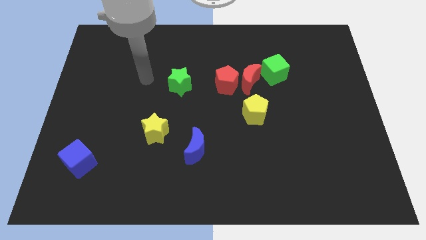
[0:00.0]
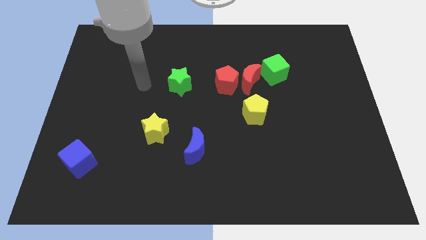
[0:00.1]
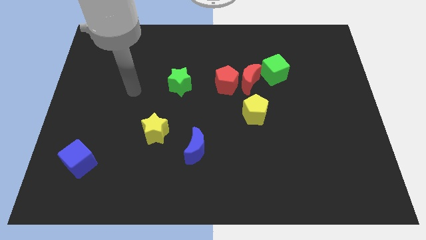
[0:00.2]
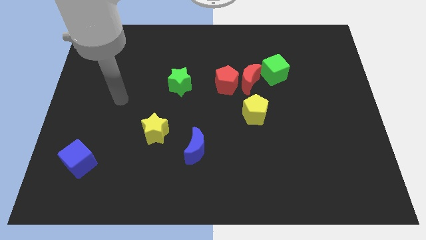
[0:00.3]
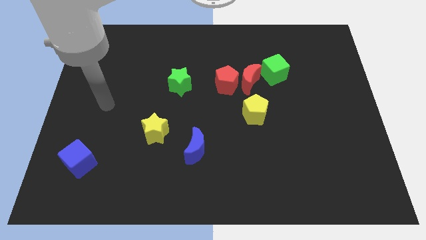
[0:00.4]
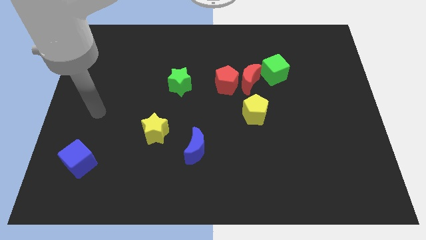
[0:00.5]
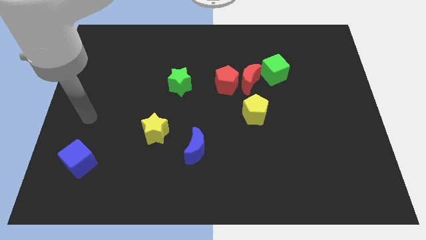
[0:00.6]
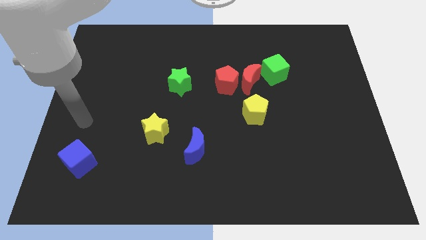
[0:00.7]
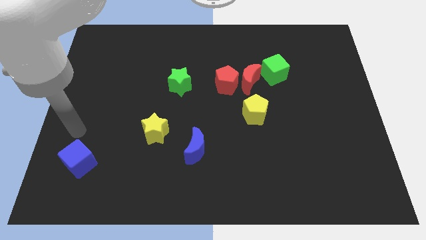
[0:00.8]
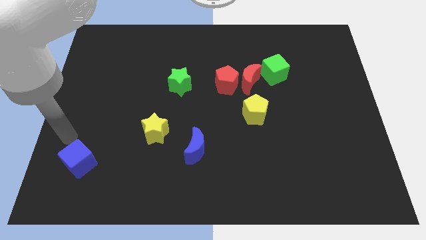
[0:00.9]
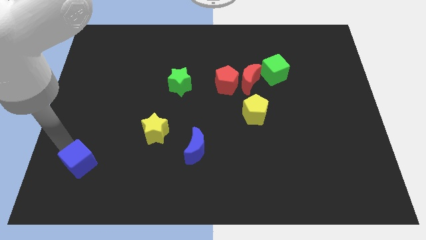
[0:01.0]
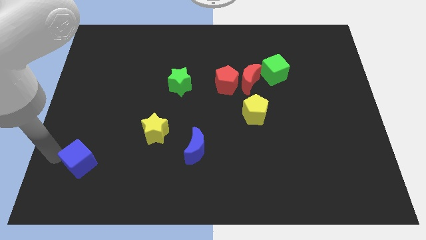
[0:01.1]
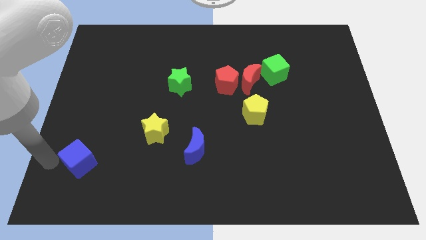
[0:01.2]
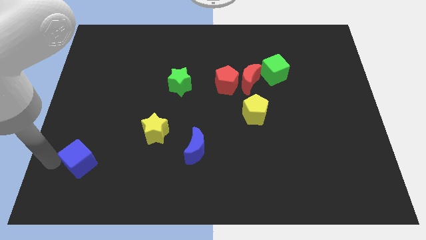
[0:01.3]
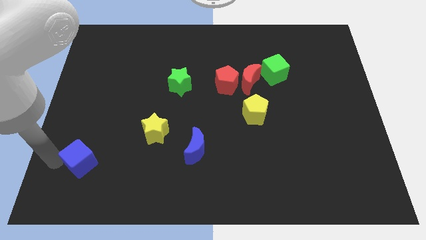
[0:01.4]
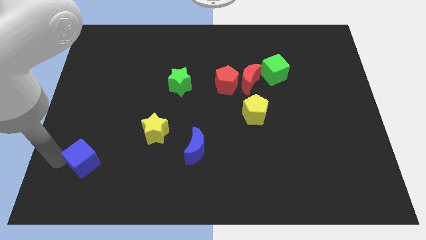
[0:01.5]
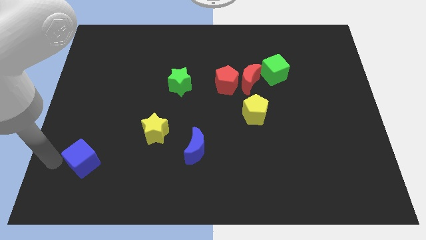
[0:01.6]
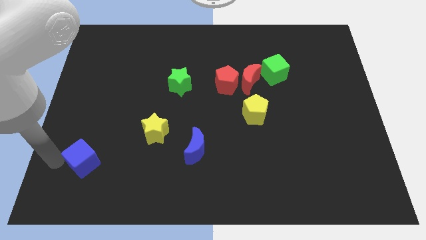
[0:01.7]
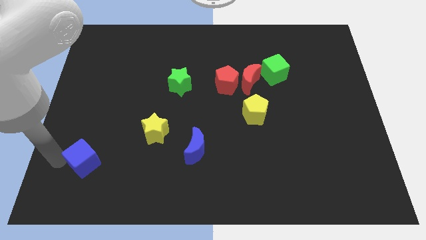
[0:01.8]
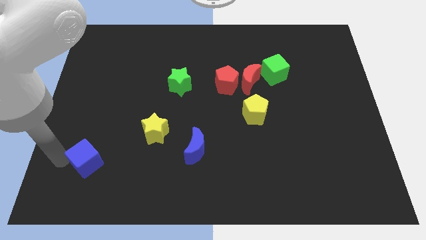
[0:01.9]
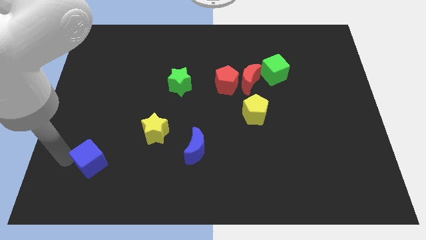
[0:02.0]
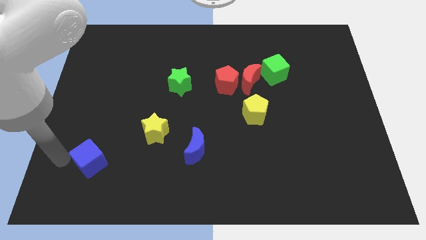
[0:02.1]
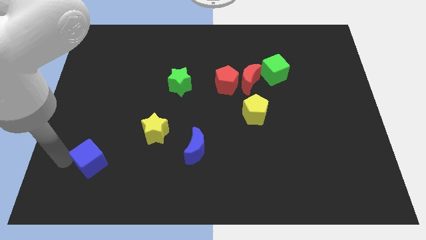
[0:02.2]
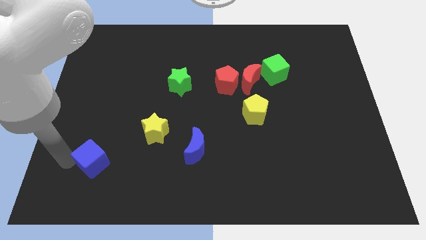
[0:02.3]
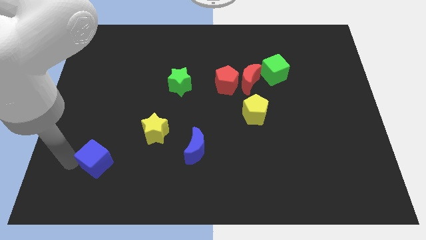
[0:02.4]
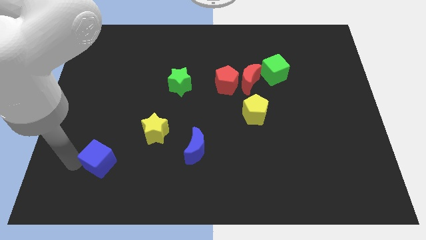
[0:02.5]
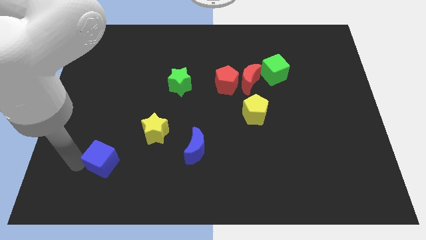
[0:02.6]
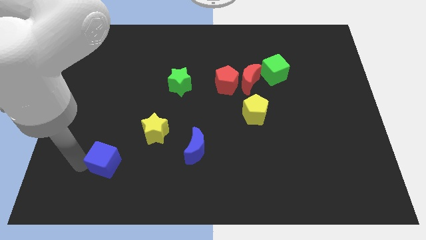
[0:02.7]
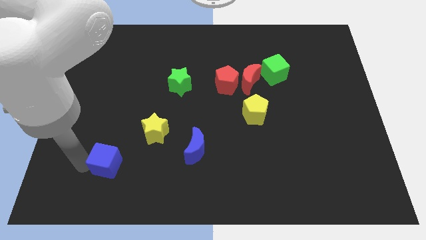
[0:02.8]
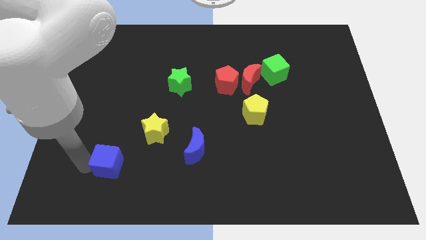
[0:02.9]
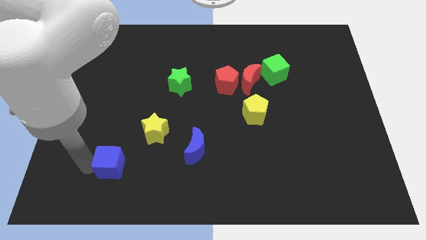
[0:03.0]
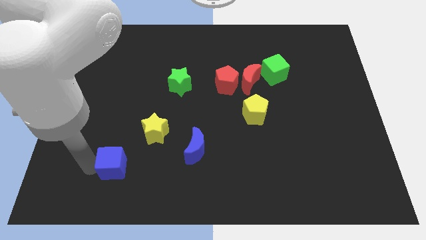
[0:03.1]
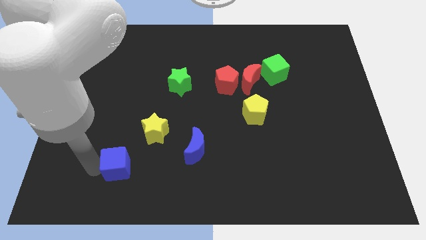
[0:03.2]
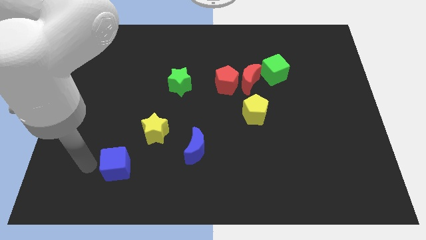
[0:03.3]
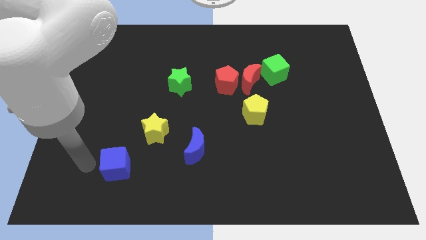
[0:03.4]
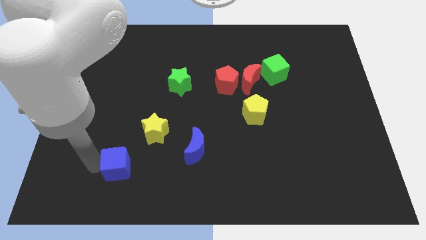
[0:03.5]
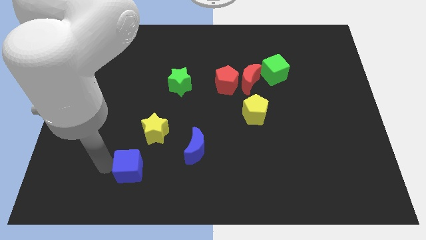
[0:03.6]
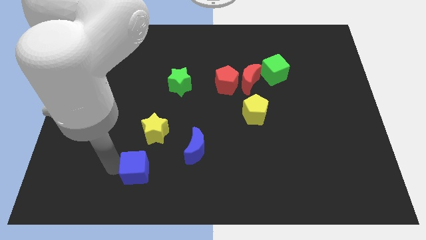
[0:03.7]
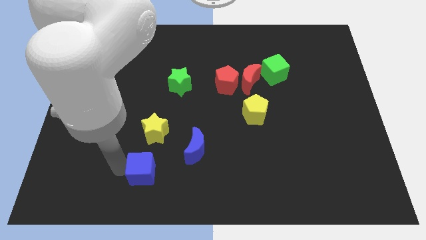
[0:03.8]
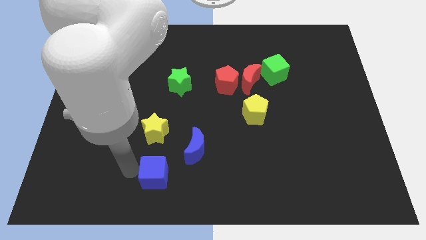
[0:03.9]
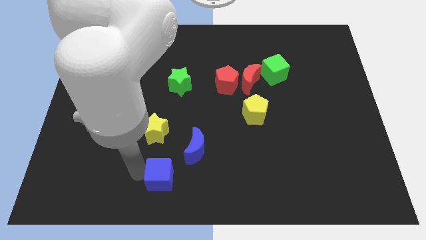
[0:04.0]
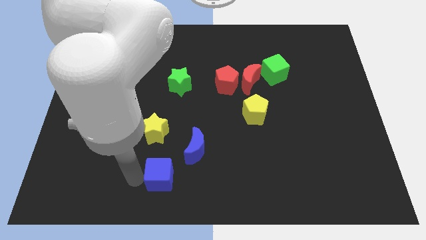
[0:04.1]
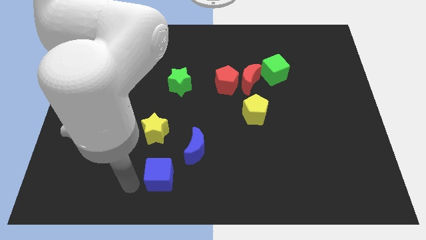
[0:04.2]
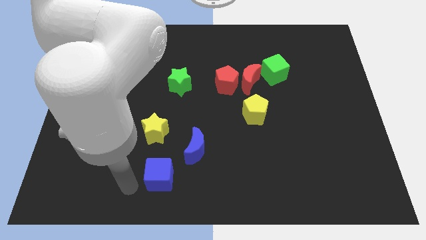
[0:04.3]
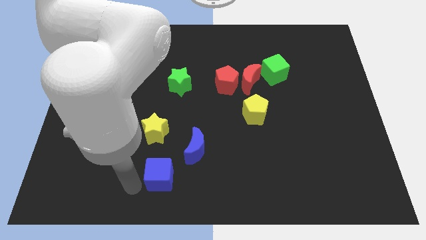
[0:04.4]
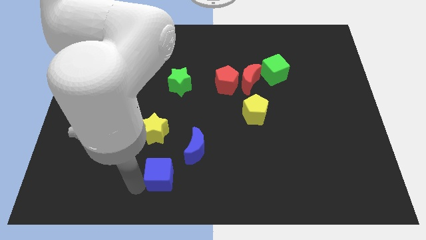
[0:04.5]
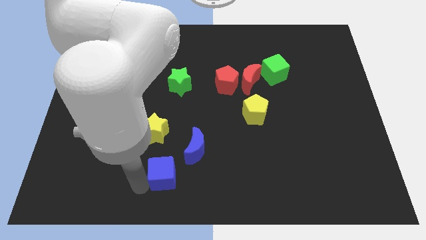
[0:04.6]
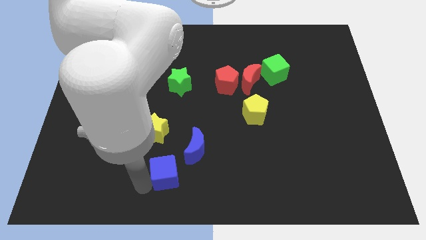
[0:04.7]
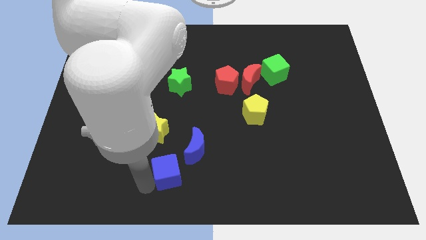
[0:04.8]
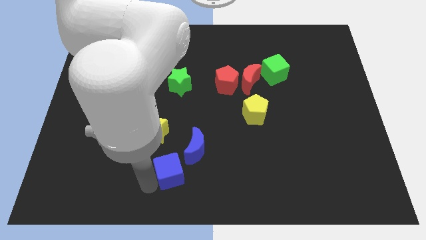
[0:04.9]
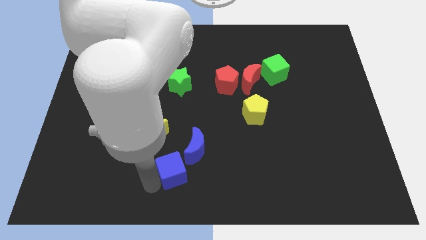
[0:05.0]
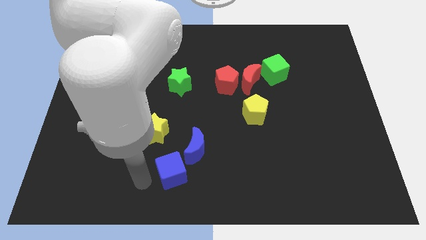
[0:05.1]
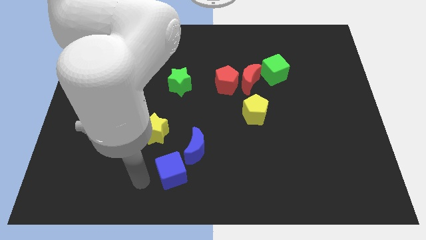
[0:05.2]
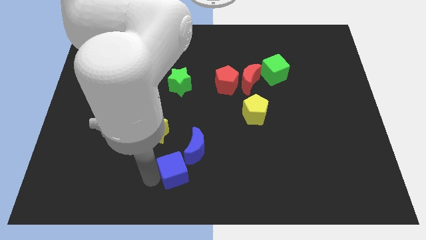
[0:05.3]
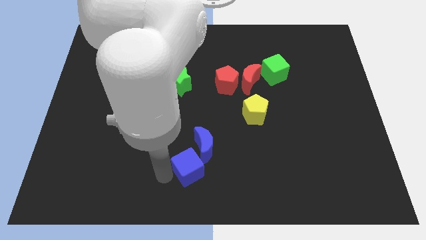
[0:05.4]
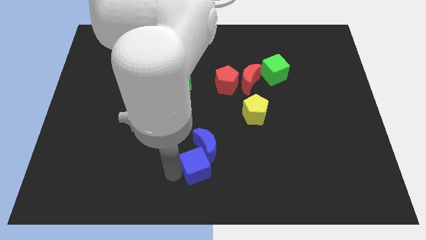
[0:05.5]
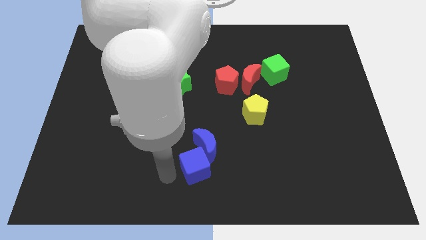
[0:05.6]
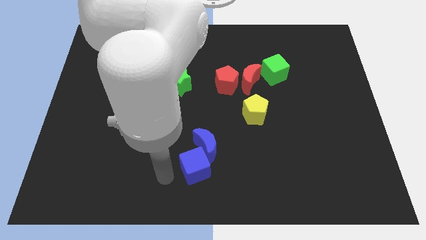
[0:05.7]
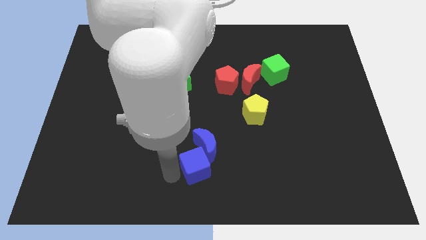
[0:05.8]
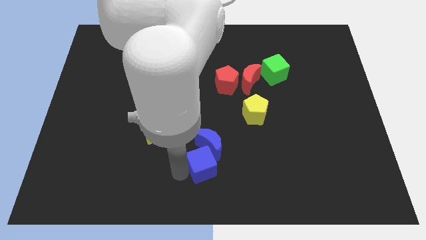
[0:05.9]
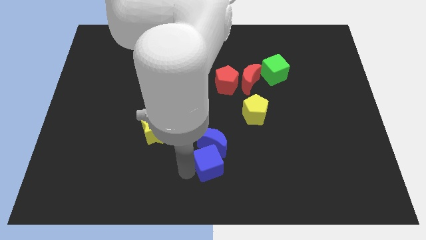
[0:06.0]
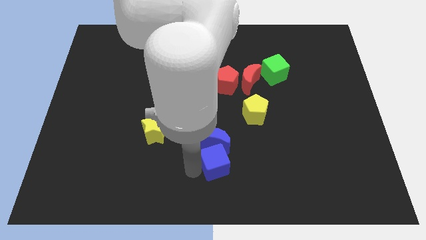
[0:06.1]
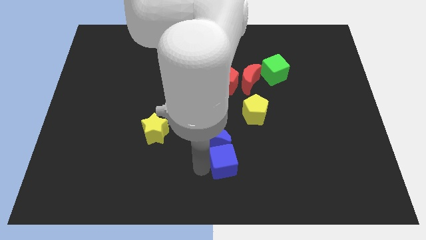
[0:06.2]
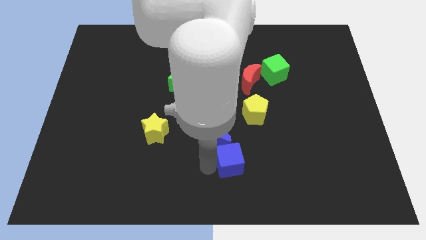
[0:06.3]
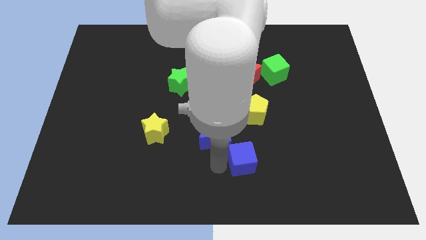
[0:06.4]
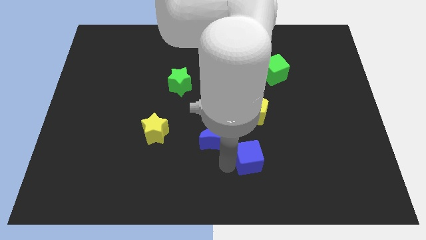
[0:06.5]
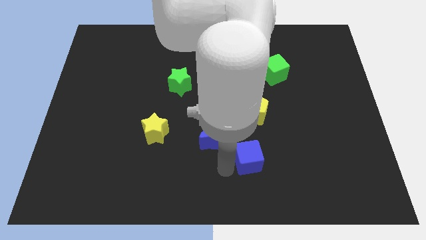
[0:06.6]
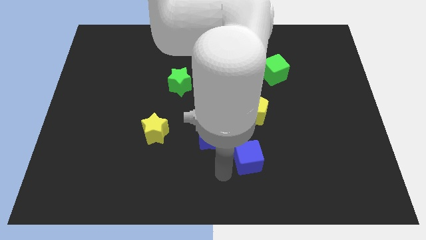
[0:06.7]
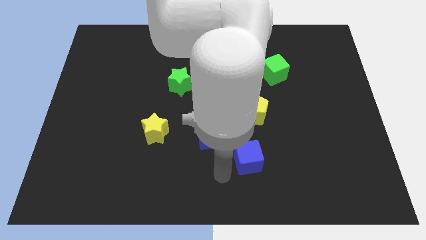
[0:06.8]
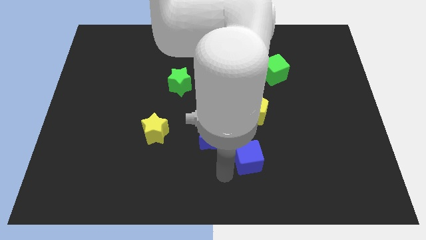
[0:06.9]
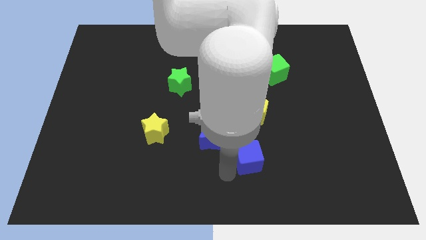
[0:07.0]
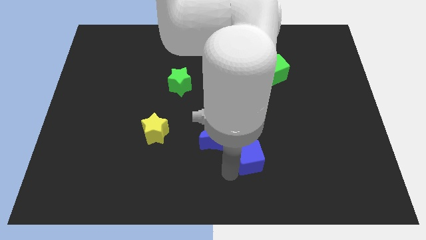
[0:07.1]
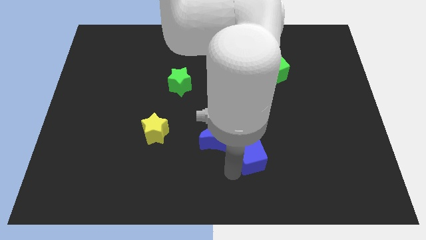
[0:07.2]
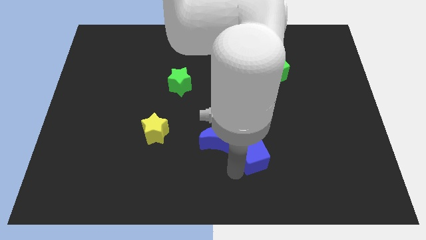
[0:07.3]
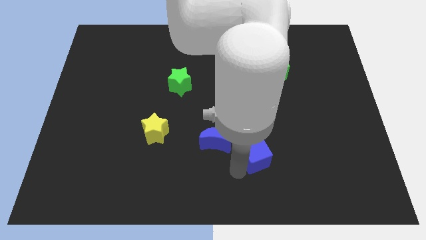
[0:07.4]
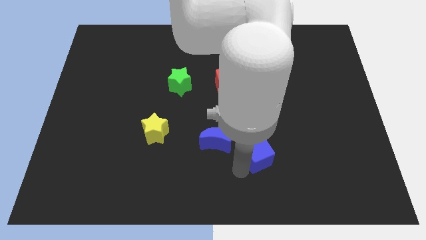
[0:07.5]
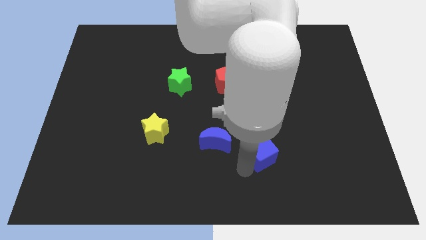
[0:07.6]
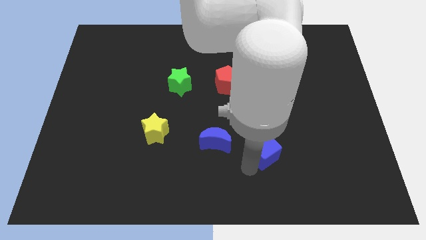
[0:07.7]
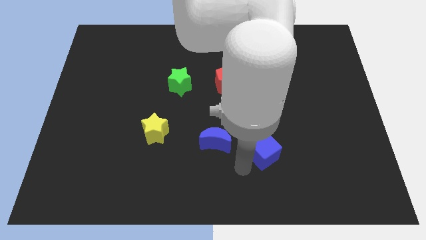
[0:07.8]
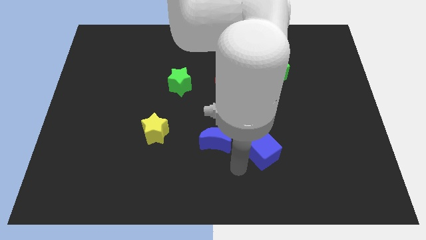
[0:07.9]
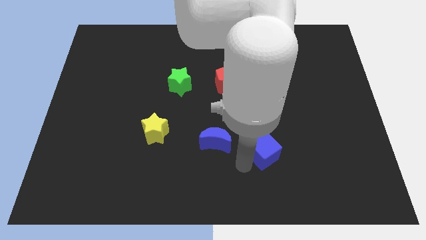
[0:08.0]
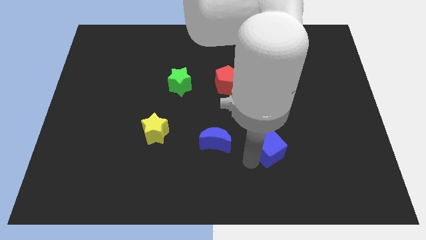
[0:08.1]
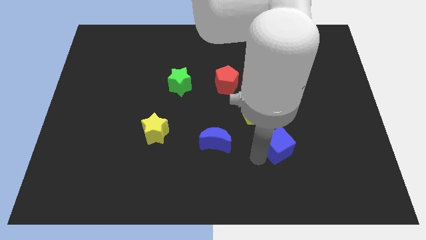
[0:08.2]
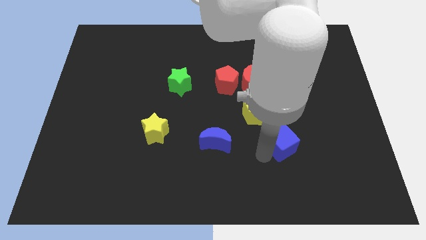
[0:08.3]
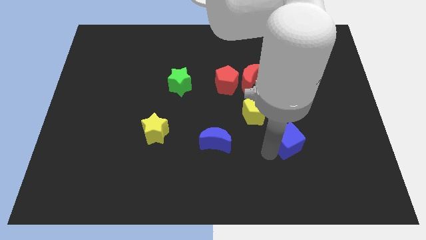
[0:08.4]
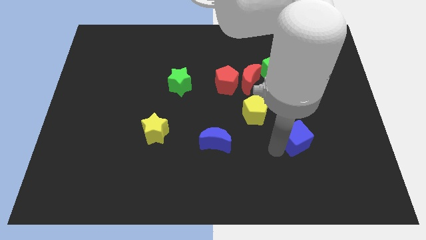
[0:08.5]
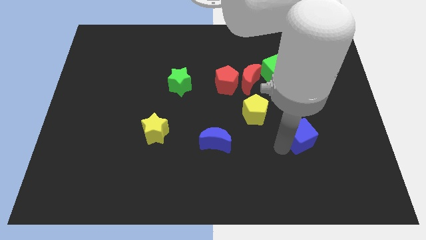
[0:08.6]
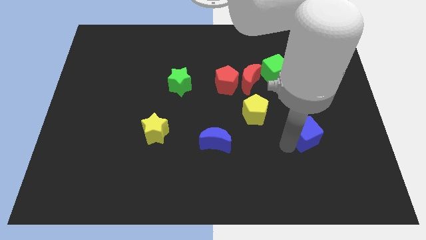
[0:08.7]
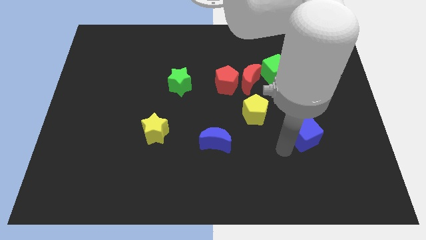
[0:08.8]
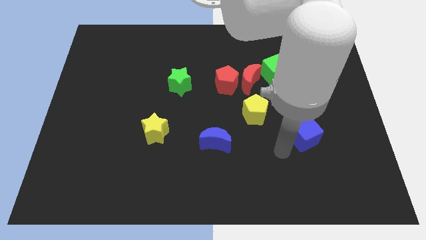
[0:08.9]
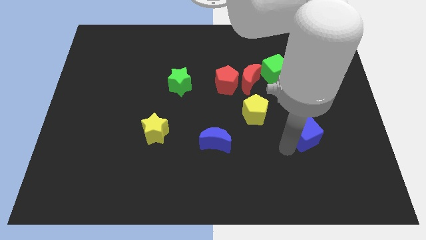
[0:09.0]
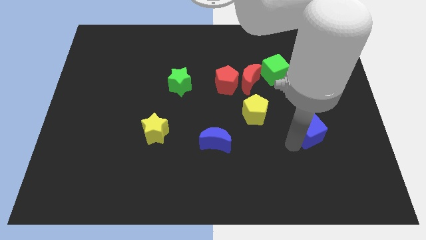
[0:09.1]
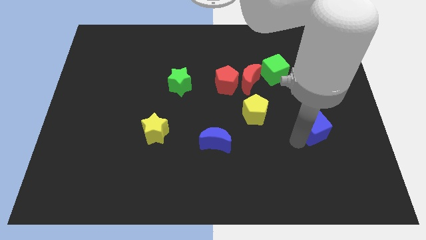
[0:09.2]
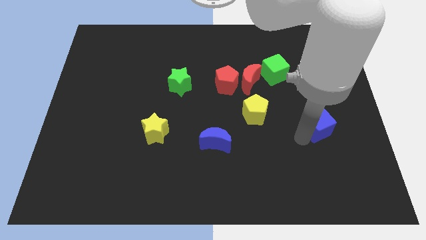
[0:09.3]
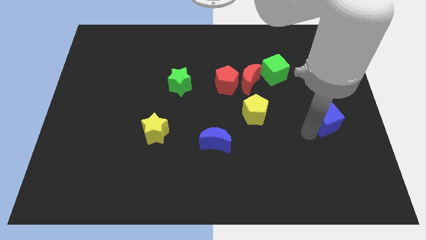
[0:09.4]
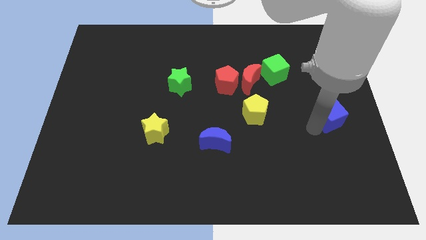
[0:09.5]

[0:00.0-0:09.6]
move the blue cube to the right side of the board
